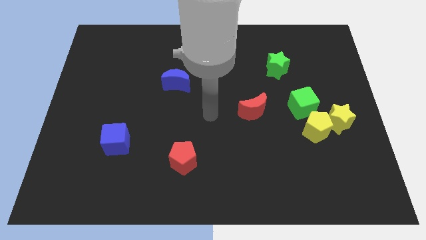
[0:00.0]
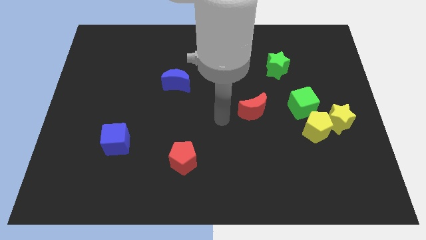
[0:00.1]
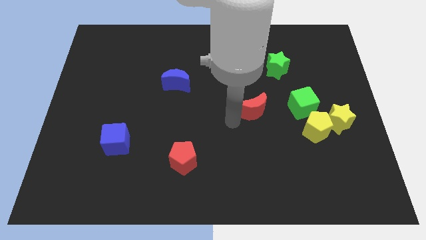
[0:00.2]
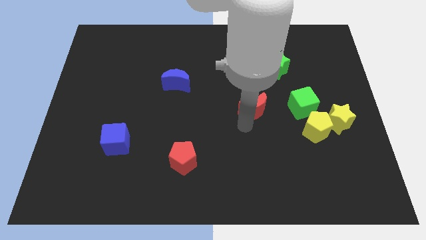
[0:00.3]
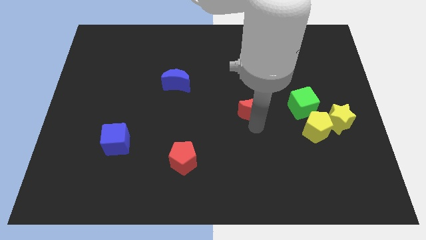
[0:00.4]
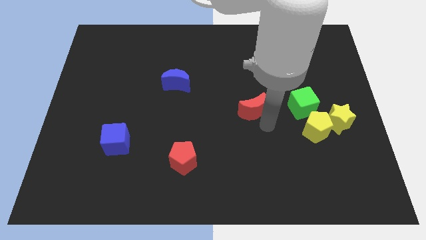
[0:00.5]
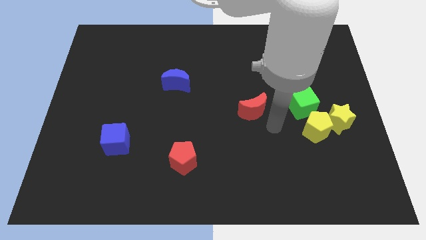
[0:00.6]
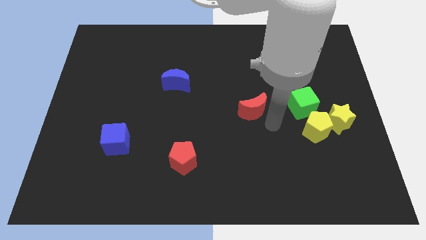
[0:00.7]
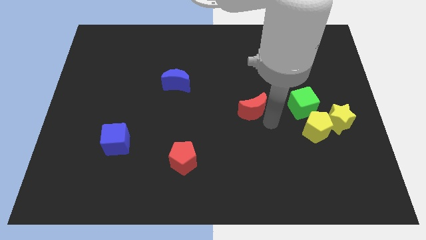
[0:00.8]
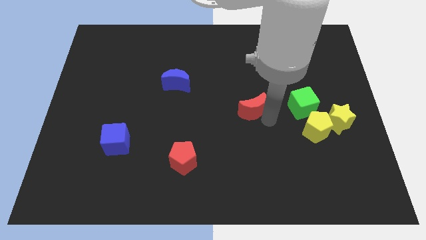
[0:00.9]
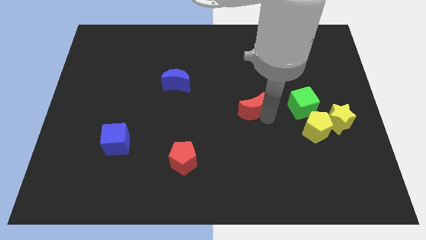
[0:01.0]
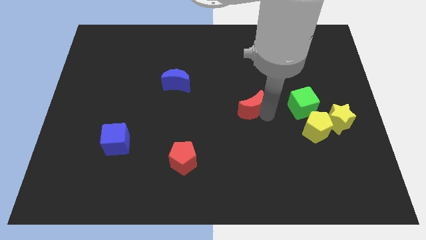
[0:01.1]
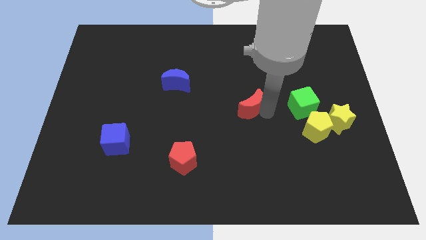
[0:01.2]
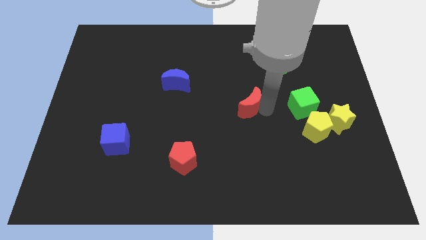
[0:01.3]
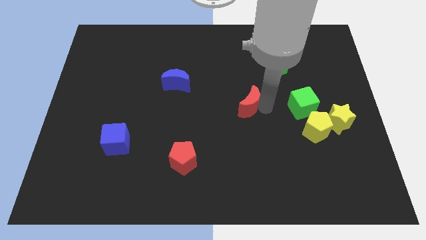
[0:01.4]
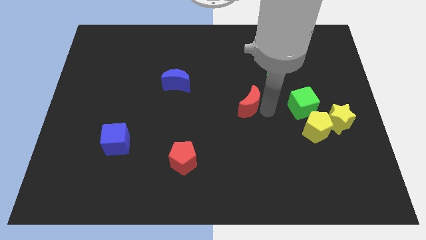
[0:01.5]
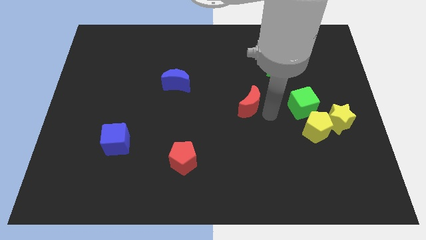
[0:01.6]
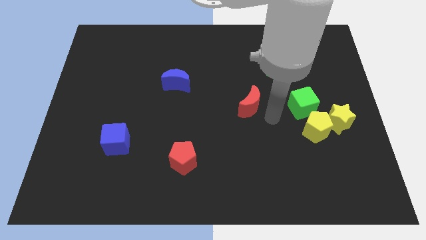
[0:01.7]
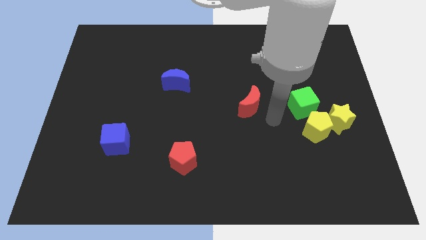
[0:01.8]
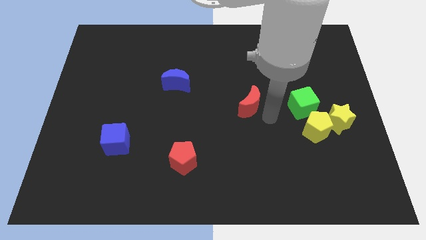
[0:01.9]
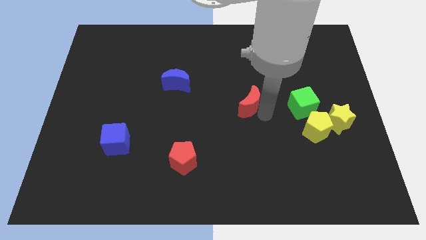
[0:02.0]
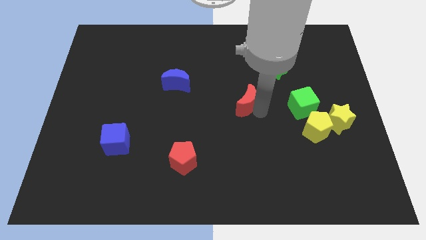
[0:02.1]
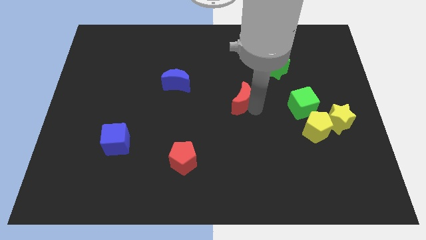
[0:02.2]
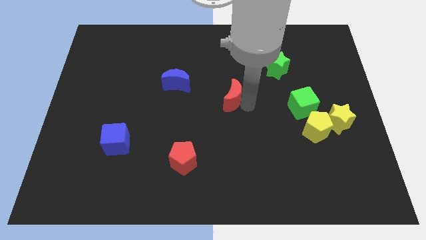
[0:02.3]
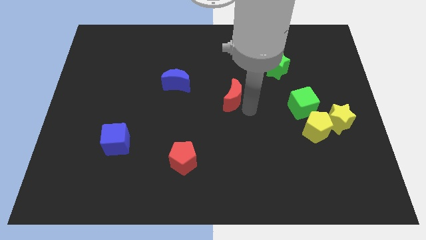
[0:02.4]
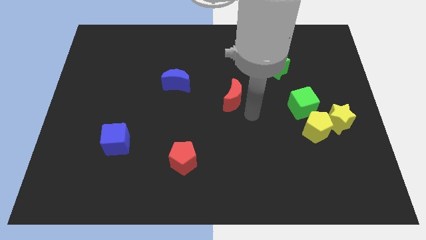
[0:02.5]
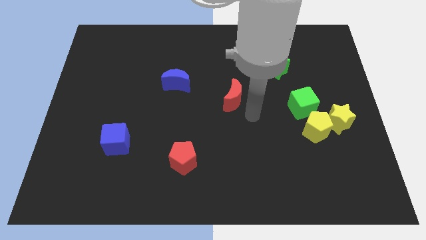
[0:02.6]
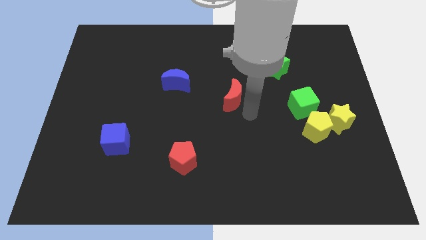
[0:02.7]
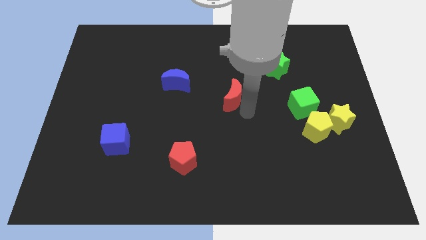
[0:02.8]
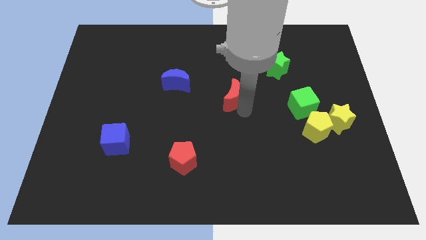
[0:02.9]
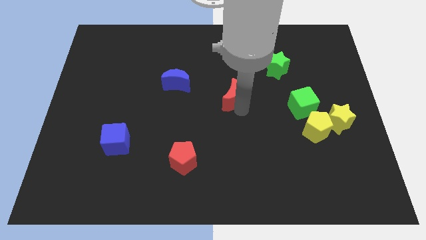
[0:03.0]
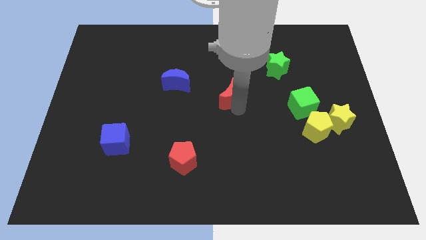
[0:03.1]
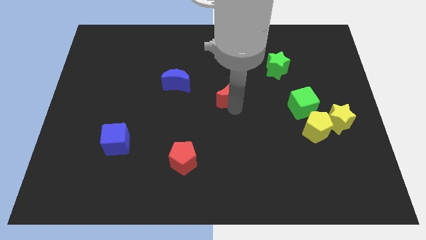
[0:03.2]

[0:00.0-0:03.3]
slightly push the red moon up and then to the left

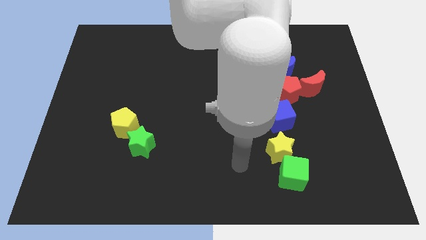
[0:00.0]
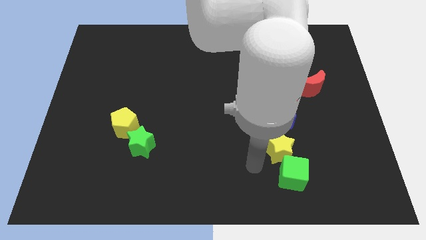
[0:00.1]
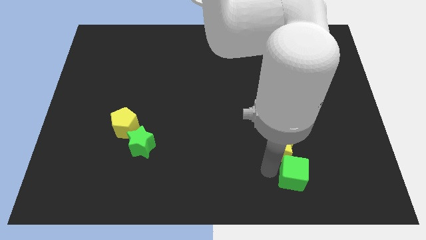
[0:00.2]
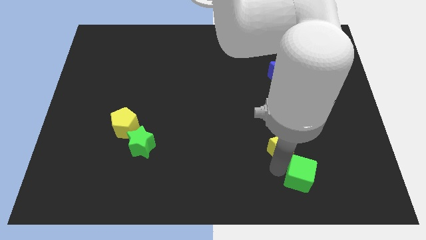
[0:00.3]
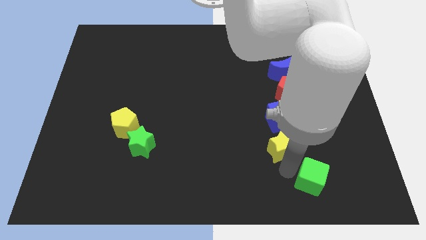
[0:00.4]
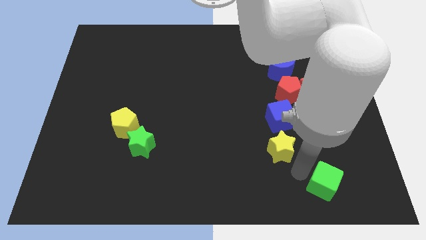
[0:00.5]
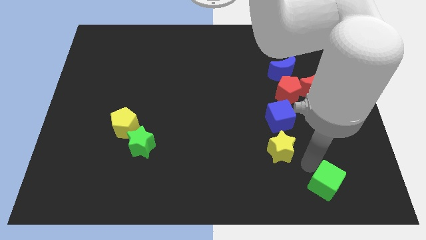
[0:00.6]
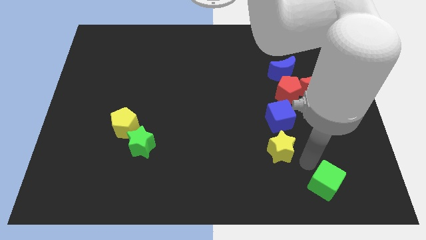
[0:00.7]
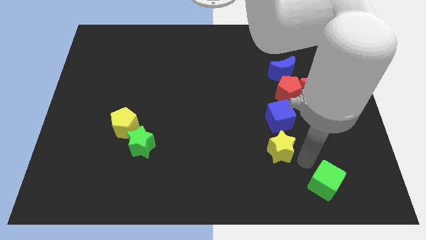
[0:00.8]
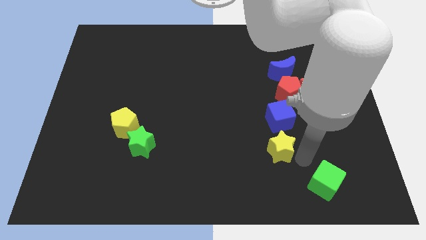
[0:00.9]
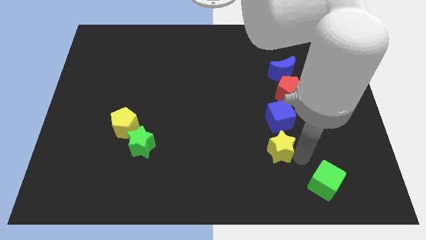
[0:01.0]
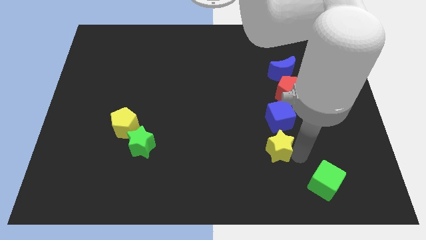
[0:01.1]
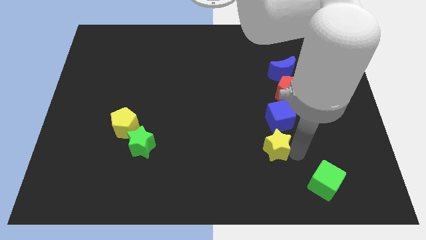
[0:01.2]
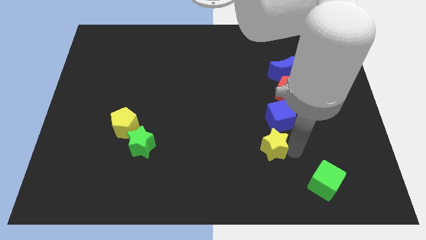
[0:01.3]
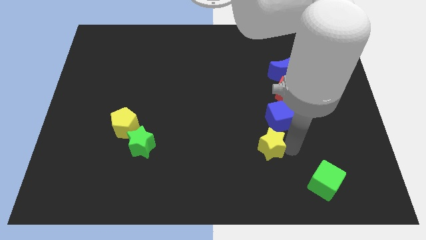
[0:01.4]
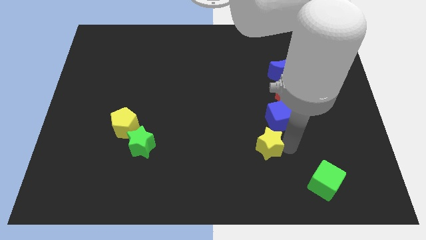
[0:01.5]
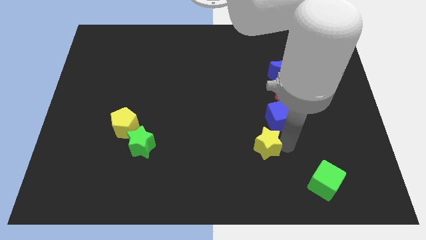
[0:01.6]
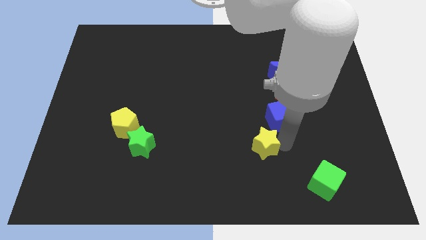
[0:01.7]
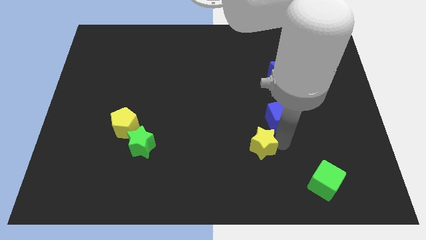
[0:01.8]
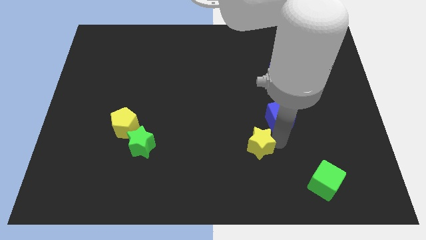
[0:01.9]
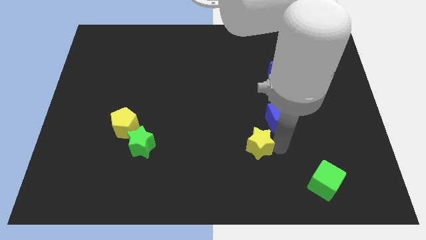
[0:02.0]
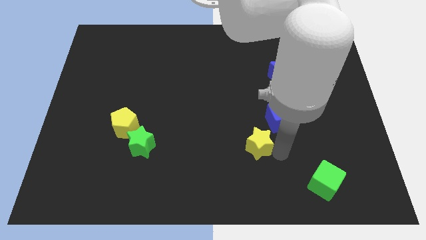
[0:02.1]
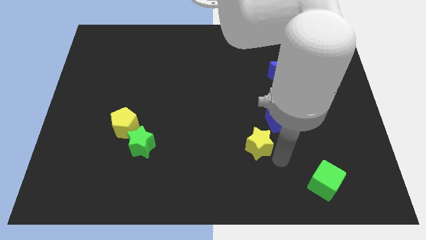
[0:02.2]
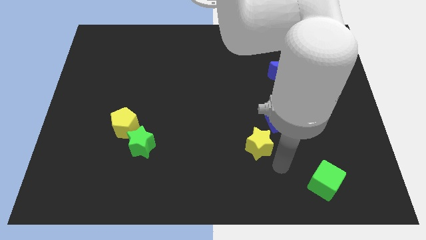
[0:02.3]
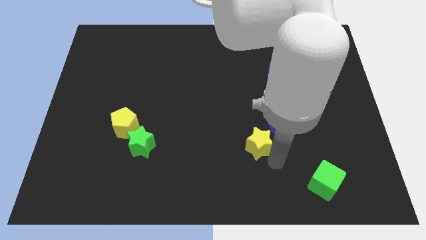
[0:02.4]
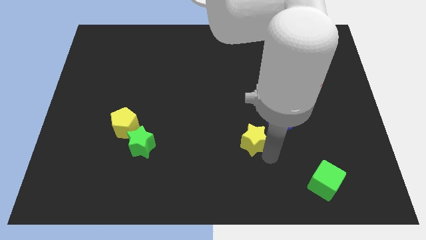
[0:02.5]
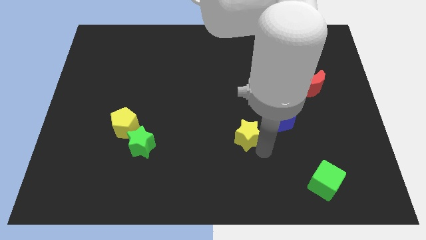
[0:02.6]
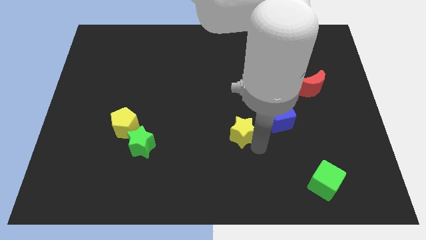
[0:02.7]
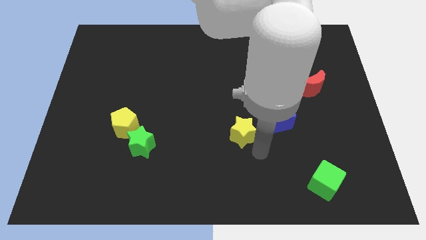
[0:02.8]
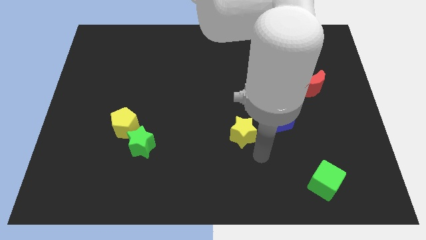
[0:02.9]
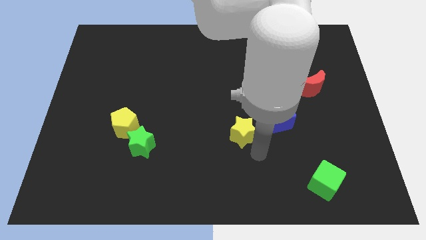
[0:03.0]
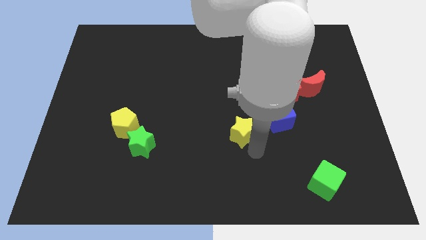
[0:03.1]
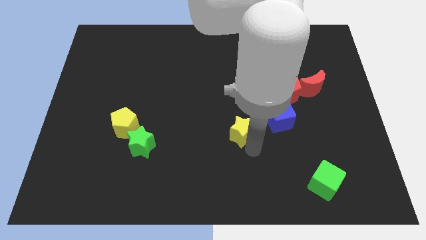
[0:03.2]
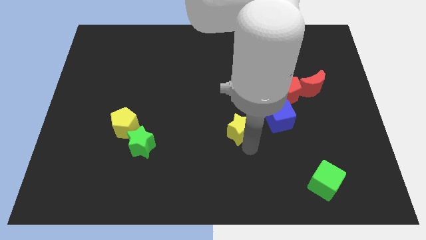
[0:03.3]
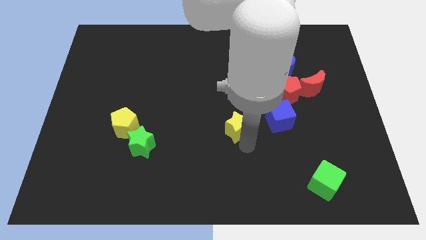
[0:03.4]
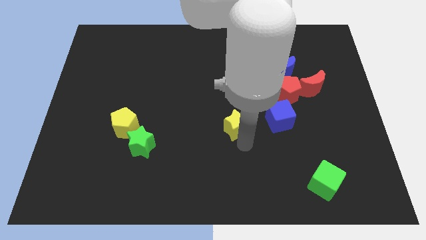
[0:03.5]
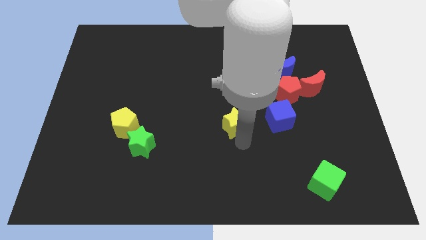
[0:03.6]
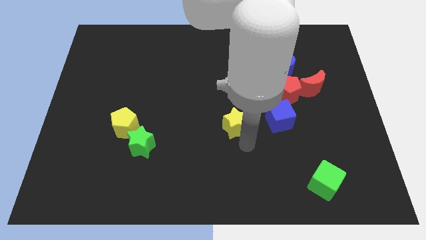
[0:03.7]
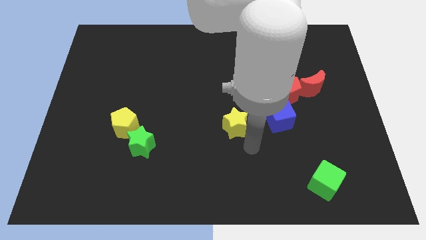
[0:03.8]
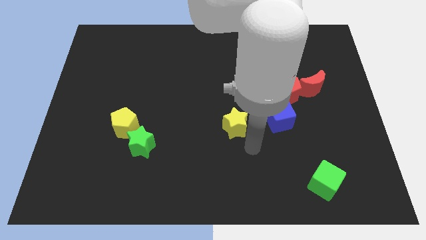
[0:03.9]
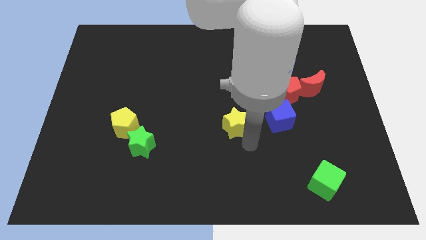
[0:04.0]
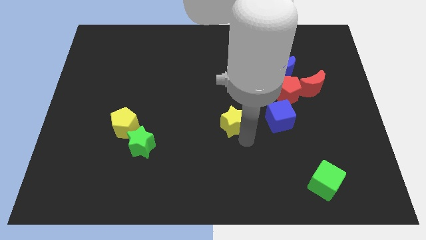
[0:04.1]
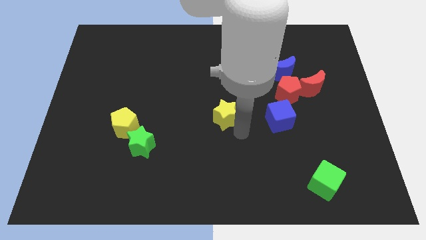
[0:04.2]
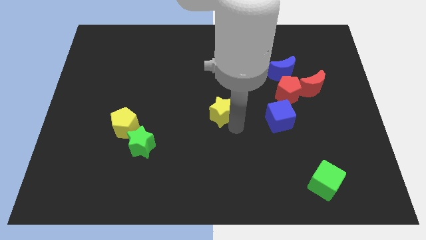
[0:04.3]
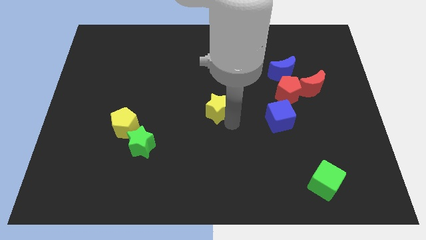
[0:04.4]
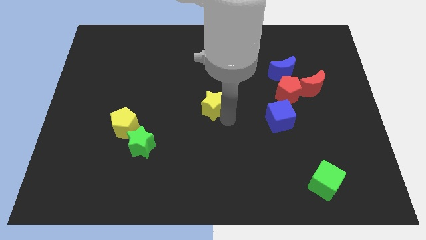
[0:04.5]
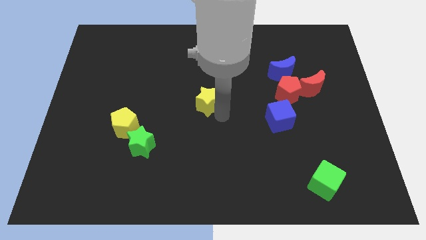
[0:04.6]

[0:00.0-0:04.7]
push the yellow star upwards and then left
